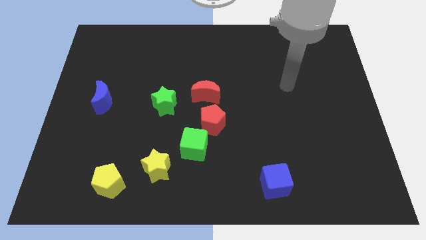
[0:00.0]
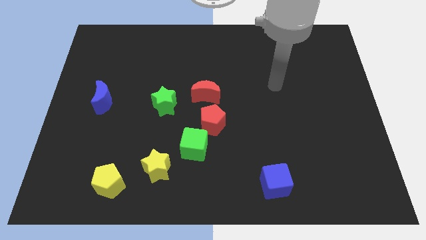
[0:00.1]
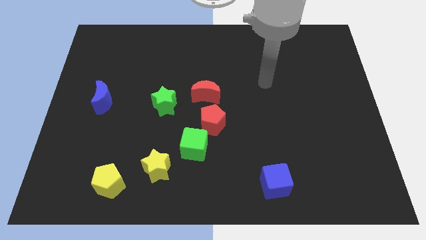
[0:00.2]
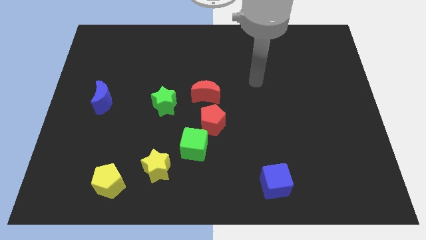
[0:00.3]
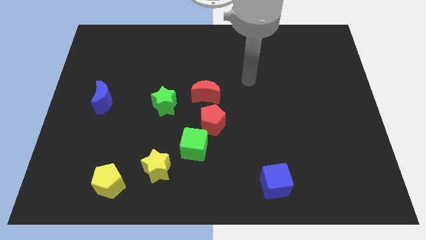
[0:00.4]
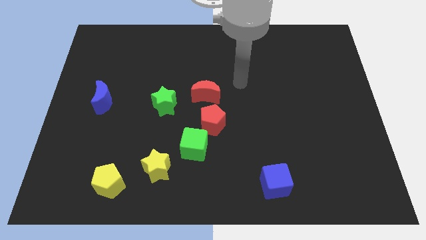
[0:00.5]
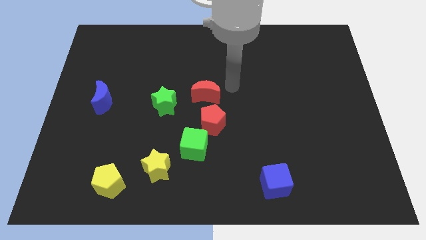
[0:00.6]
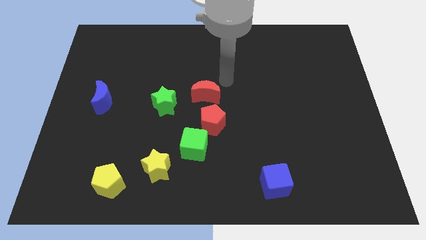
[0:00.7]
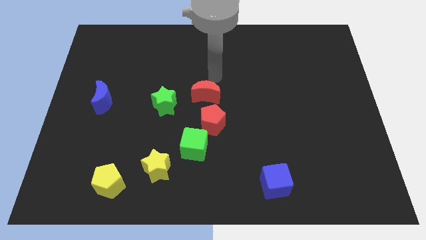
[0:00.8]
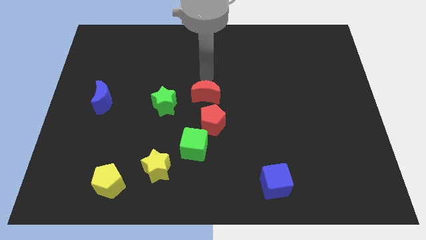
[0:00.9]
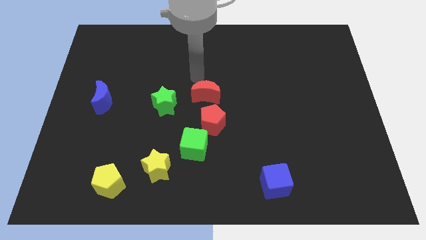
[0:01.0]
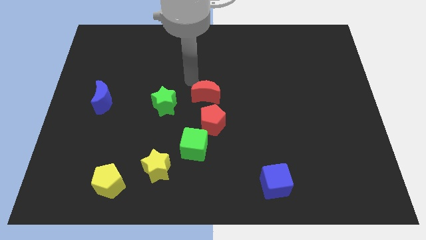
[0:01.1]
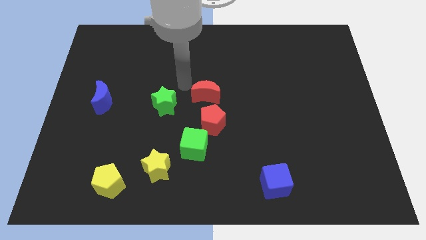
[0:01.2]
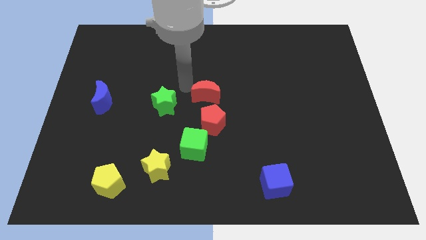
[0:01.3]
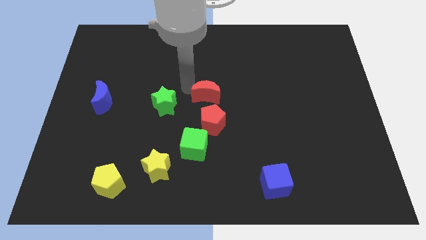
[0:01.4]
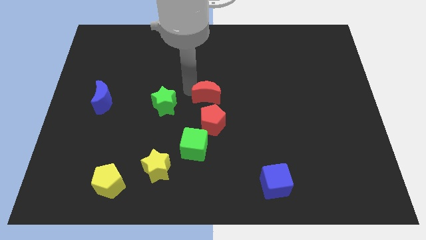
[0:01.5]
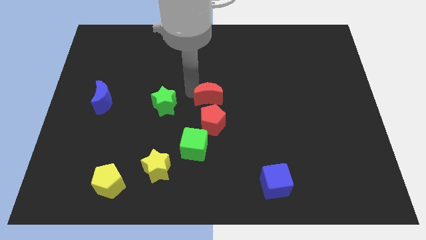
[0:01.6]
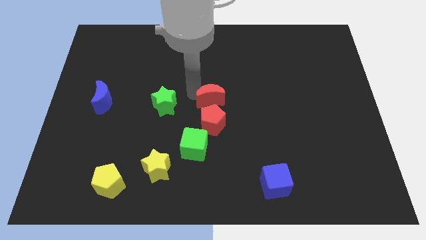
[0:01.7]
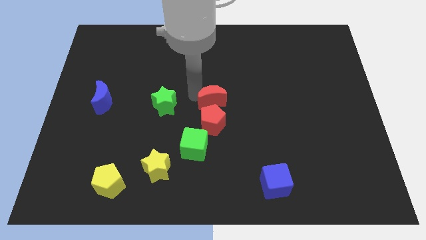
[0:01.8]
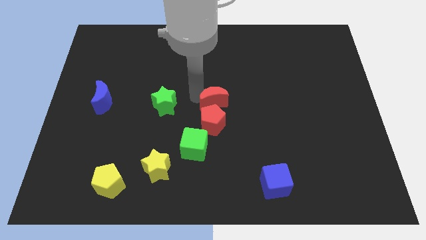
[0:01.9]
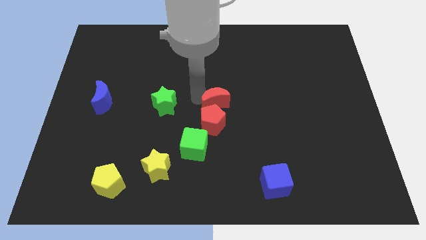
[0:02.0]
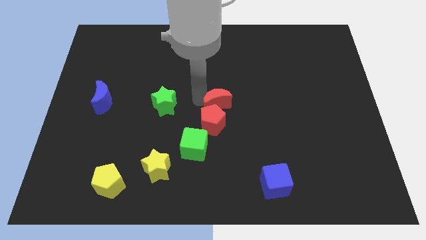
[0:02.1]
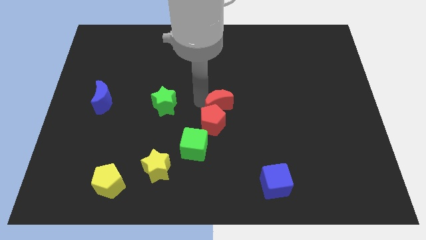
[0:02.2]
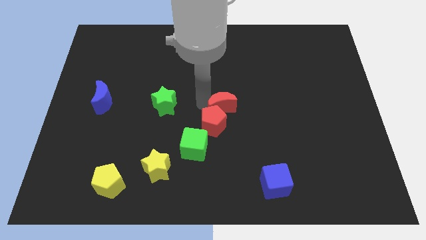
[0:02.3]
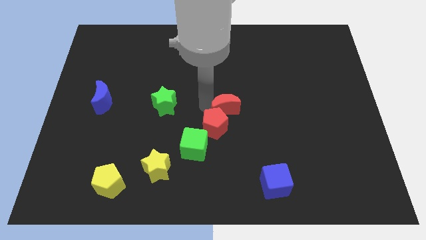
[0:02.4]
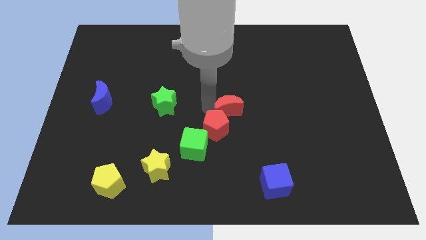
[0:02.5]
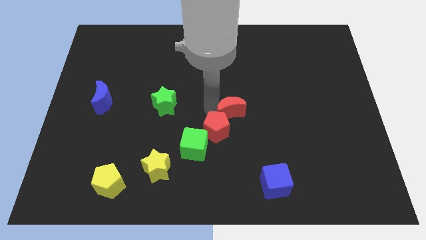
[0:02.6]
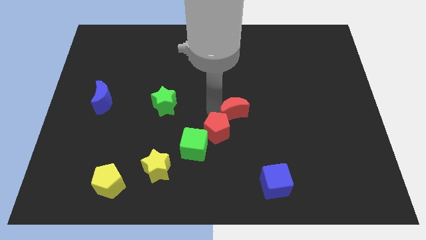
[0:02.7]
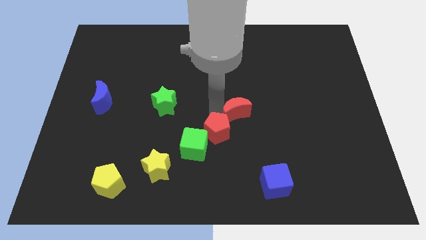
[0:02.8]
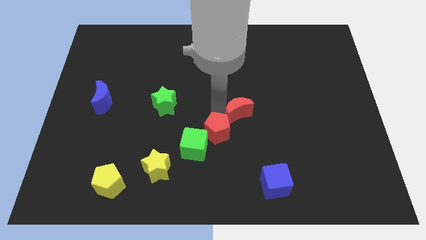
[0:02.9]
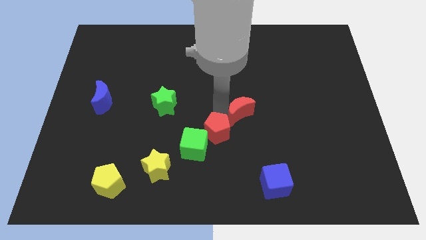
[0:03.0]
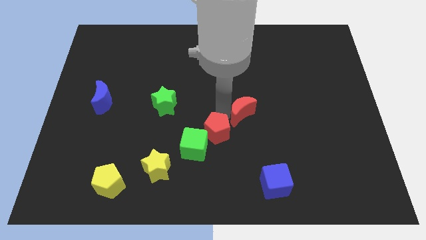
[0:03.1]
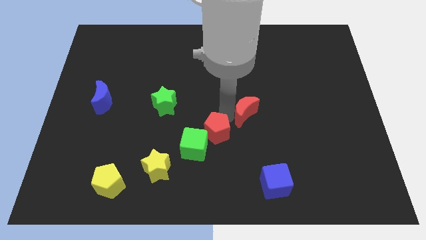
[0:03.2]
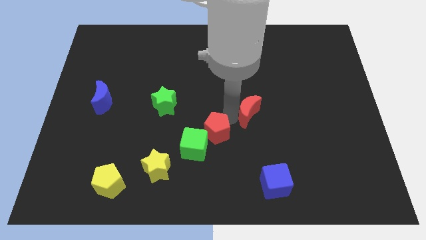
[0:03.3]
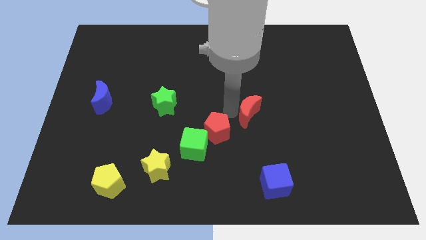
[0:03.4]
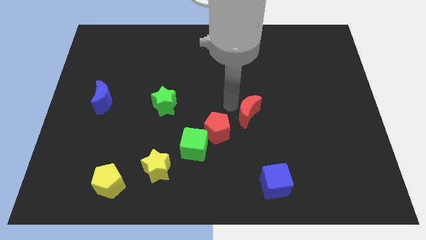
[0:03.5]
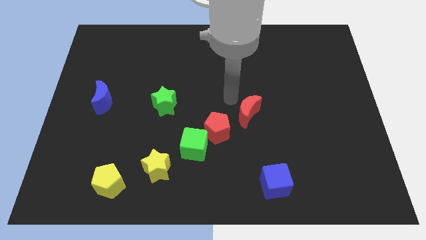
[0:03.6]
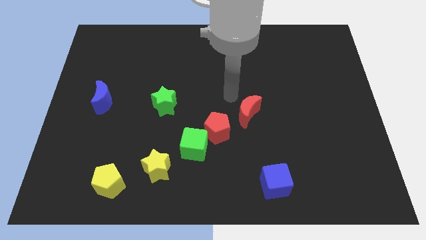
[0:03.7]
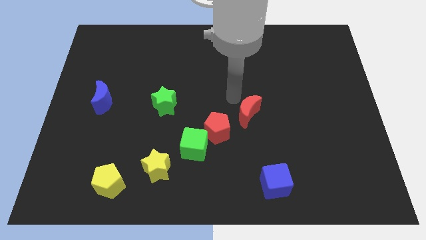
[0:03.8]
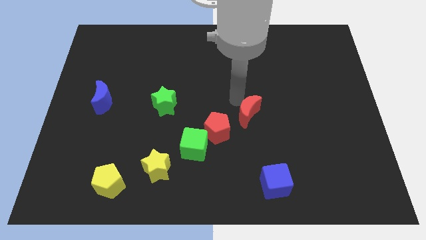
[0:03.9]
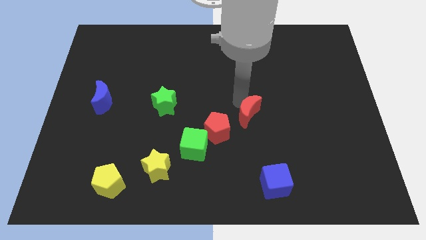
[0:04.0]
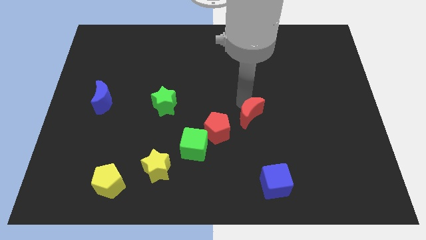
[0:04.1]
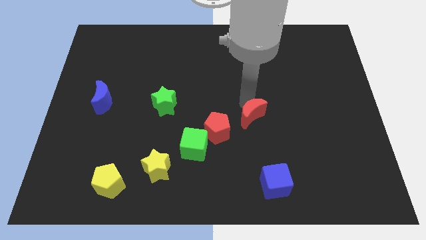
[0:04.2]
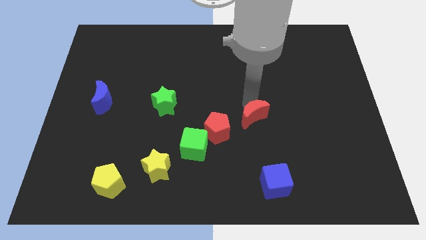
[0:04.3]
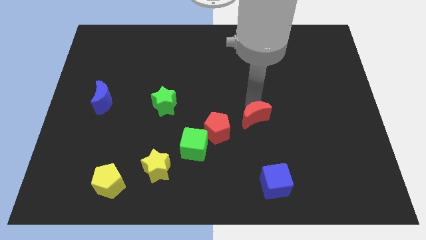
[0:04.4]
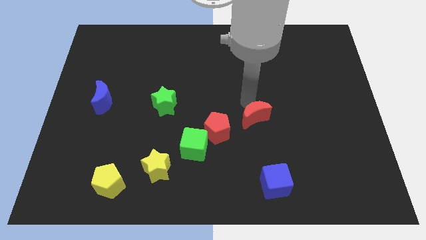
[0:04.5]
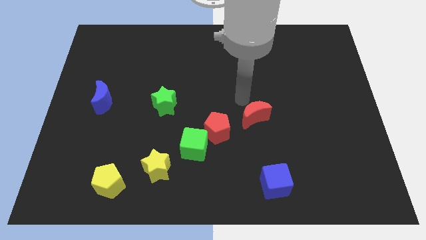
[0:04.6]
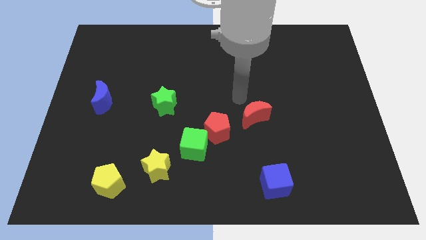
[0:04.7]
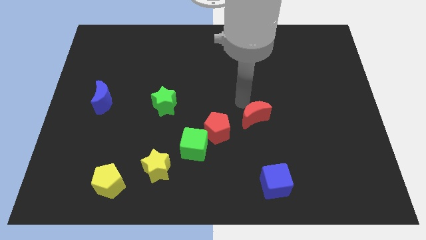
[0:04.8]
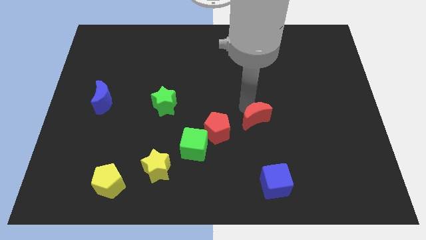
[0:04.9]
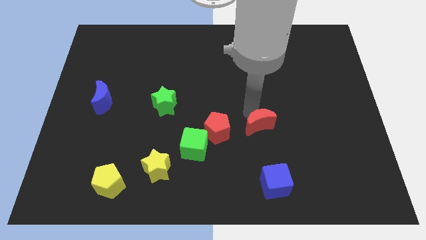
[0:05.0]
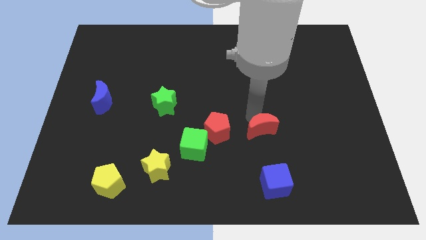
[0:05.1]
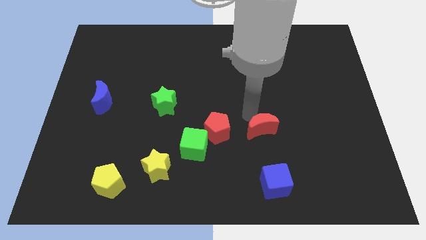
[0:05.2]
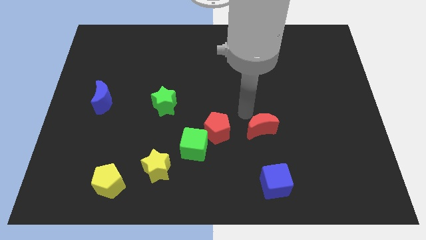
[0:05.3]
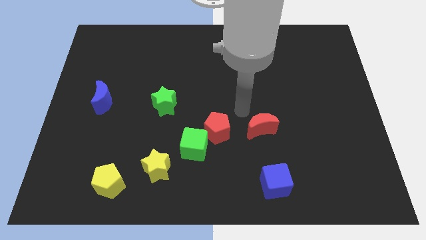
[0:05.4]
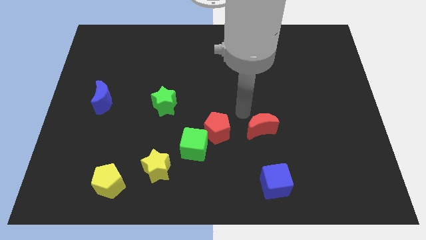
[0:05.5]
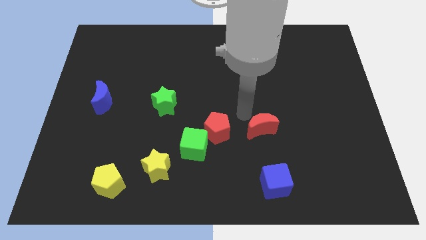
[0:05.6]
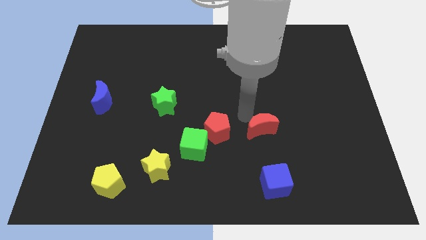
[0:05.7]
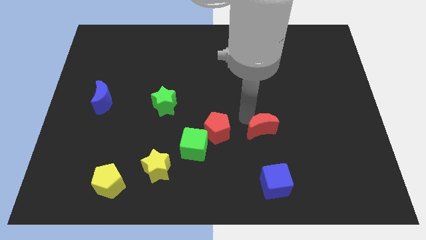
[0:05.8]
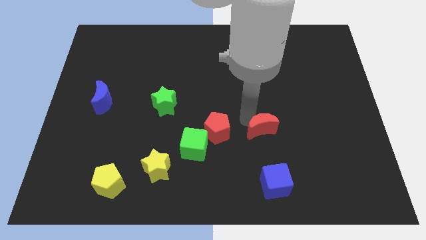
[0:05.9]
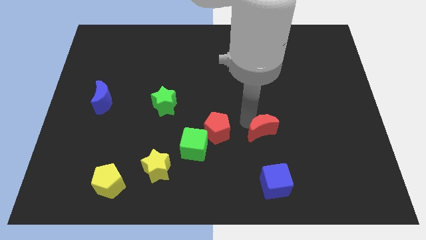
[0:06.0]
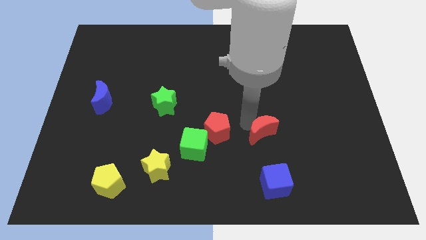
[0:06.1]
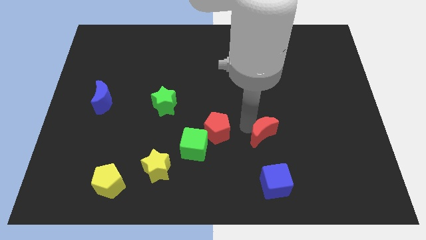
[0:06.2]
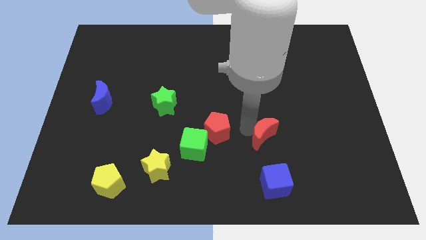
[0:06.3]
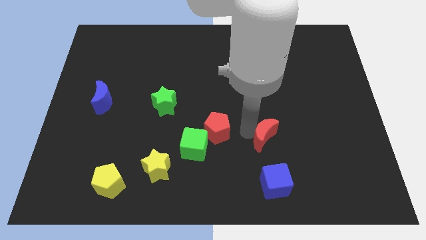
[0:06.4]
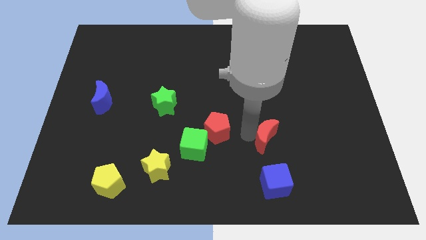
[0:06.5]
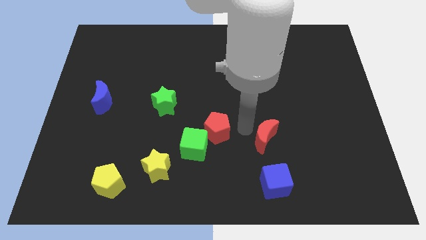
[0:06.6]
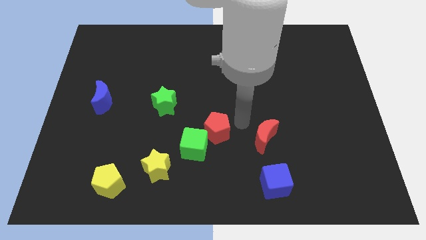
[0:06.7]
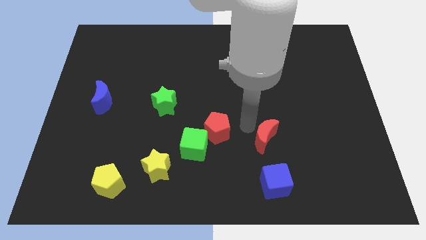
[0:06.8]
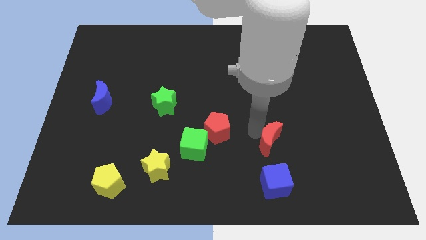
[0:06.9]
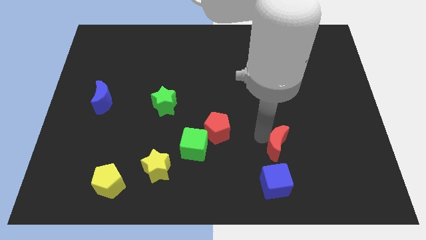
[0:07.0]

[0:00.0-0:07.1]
slide the red moon down and then to the right

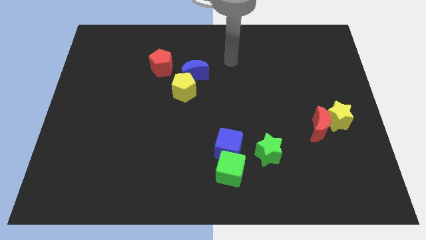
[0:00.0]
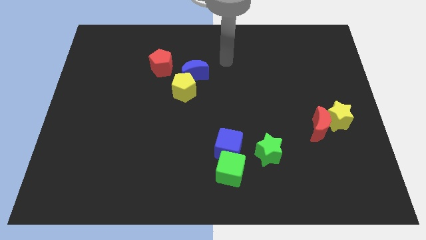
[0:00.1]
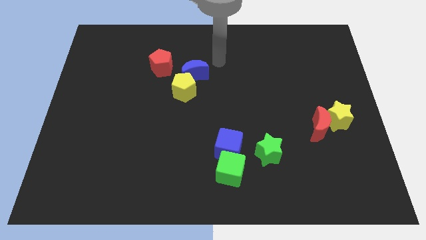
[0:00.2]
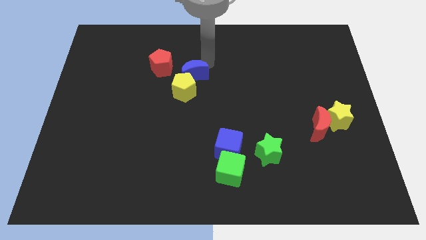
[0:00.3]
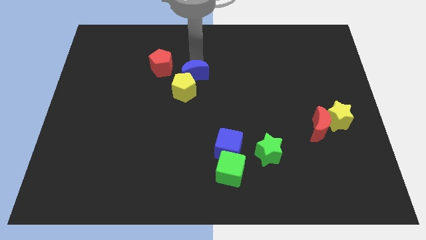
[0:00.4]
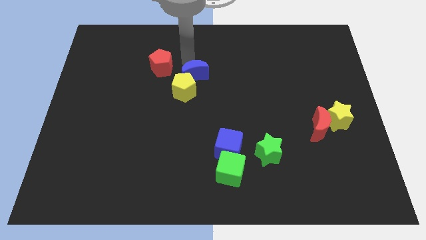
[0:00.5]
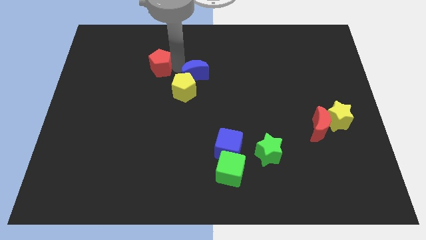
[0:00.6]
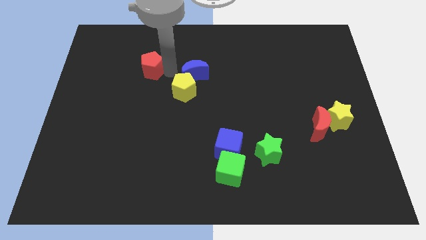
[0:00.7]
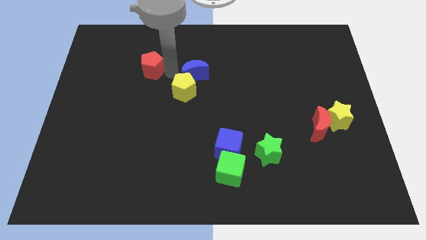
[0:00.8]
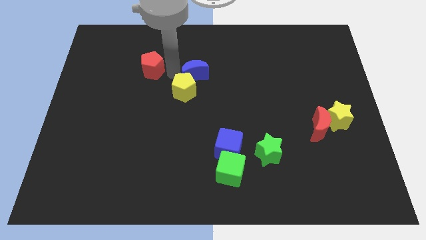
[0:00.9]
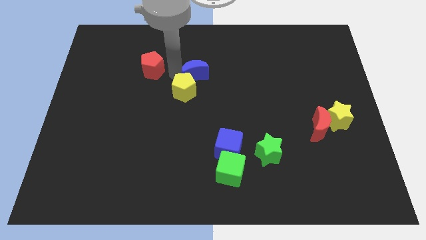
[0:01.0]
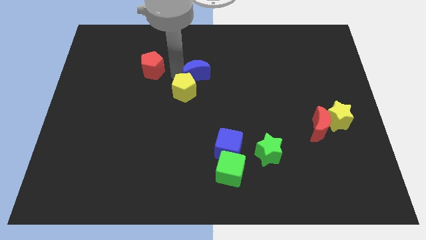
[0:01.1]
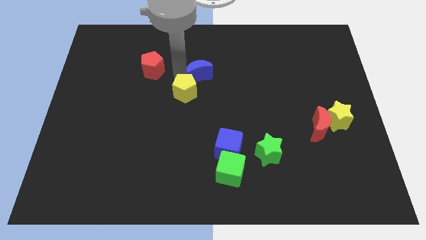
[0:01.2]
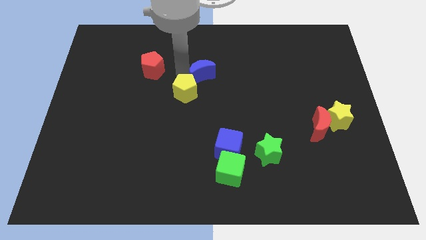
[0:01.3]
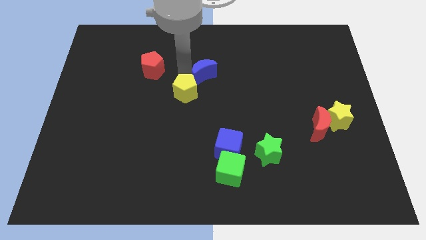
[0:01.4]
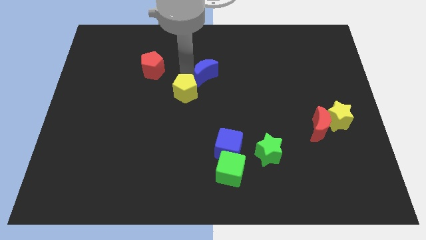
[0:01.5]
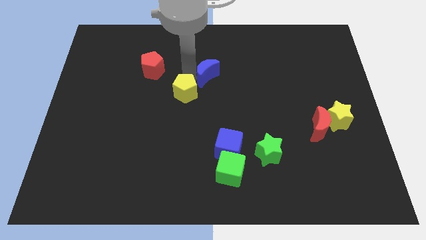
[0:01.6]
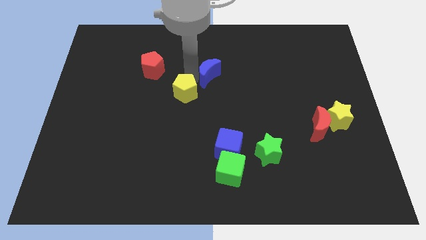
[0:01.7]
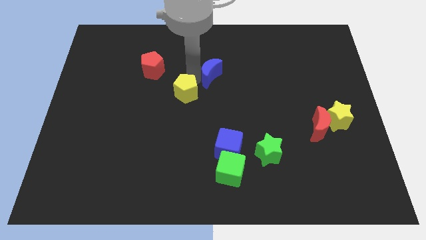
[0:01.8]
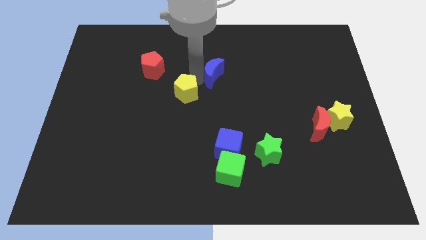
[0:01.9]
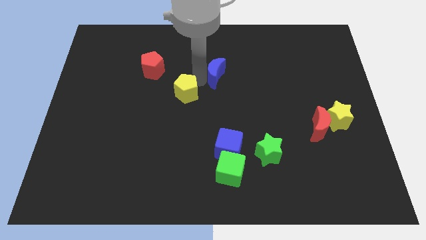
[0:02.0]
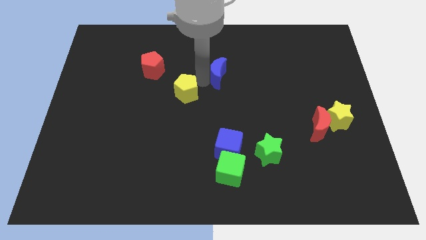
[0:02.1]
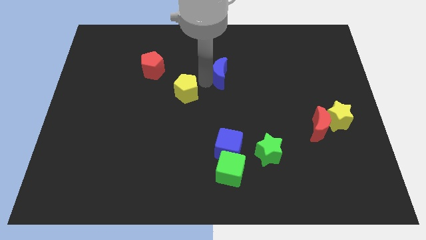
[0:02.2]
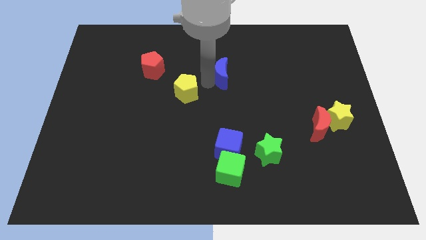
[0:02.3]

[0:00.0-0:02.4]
push the blue moon right a bit
